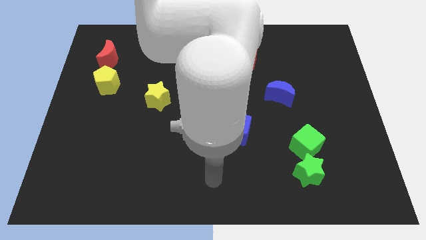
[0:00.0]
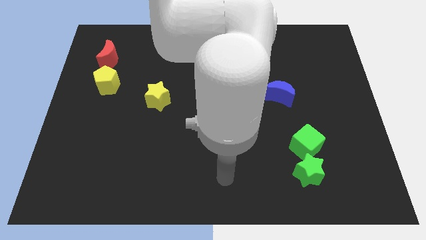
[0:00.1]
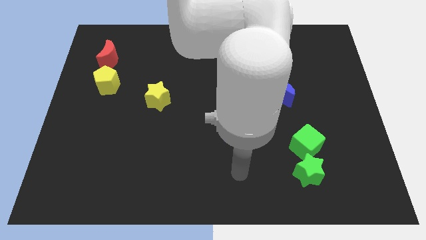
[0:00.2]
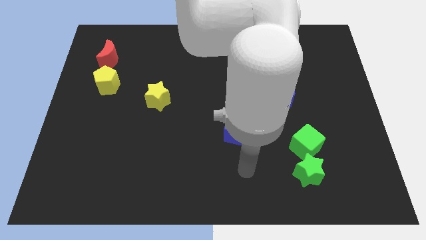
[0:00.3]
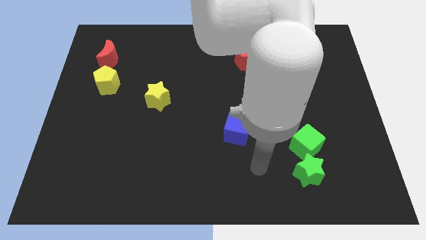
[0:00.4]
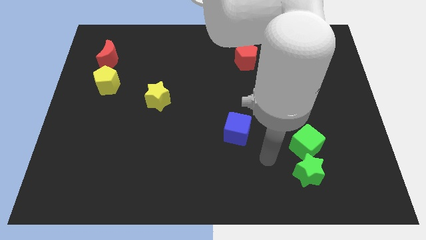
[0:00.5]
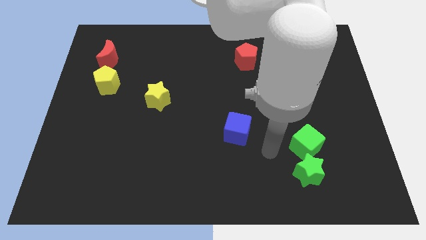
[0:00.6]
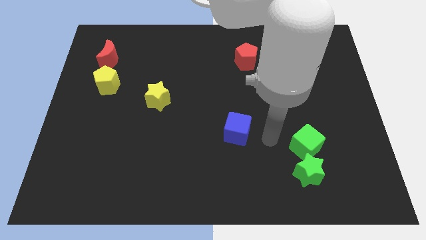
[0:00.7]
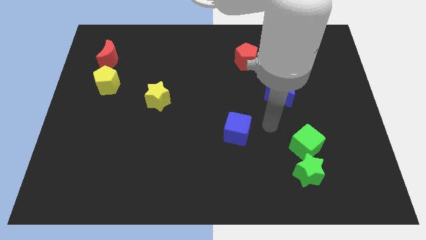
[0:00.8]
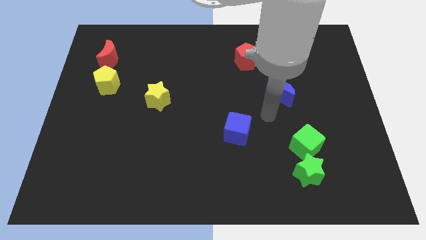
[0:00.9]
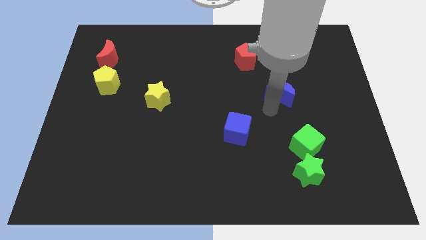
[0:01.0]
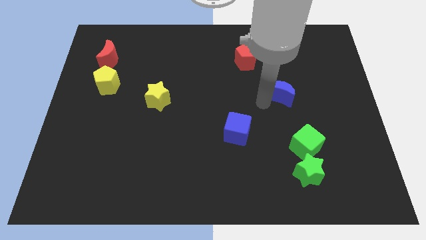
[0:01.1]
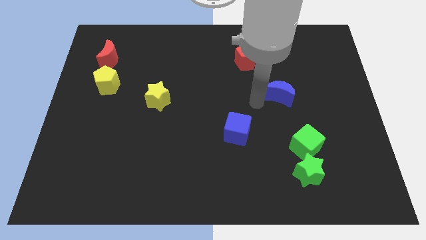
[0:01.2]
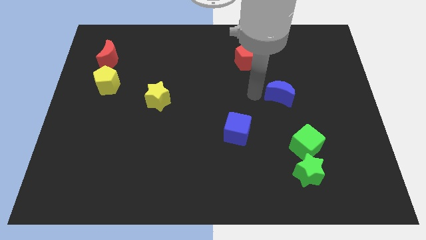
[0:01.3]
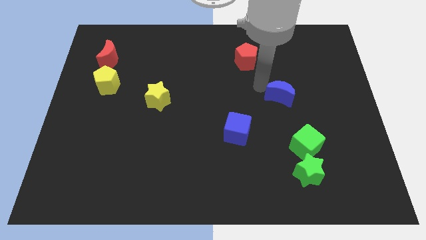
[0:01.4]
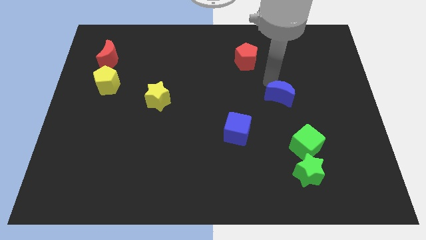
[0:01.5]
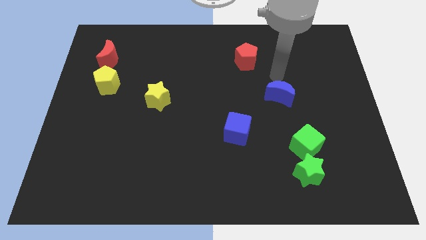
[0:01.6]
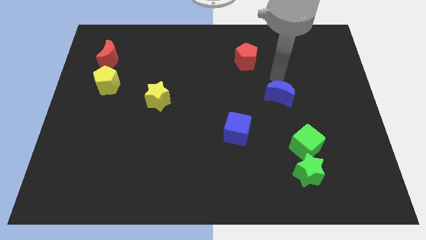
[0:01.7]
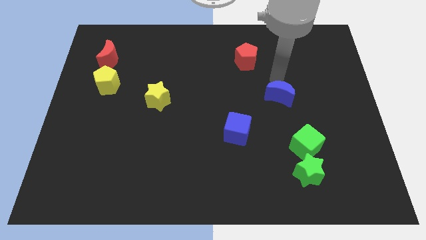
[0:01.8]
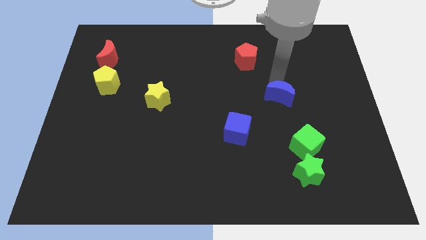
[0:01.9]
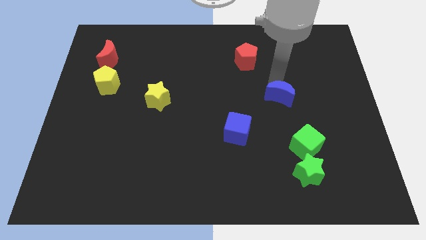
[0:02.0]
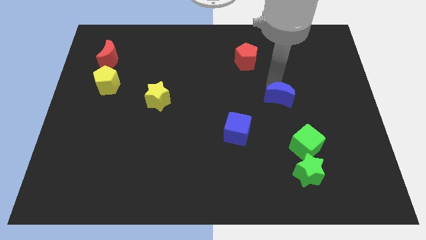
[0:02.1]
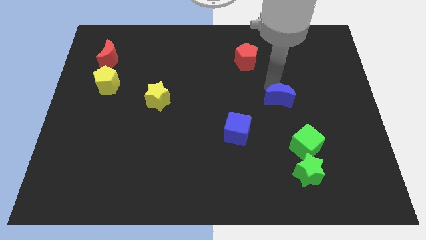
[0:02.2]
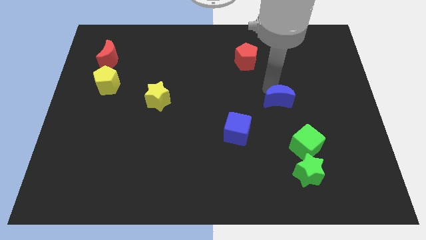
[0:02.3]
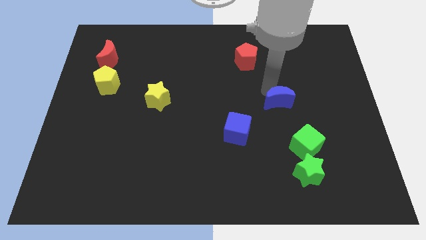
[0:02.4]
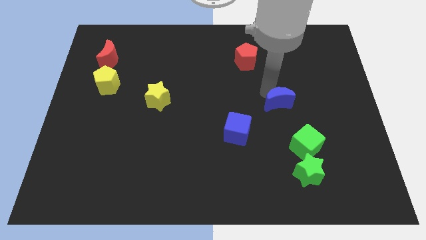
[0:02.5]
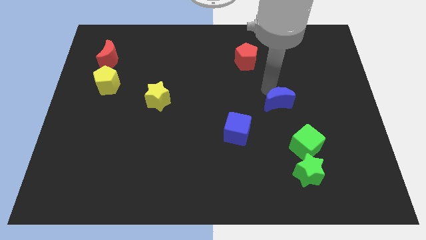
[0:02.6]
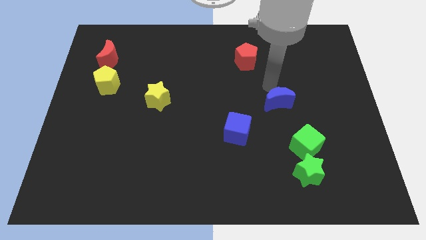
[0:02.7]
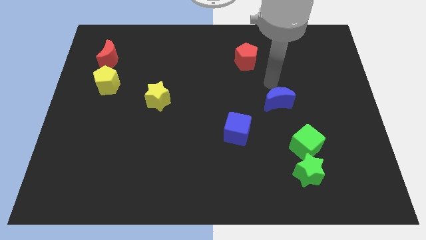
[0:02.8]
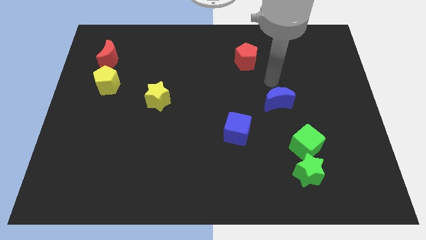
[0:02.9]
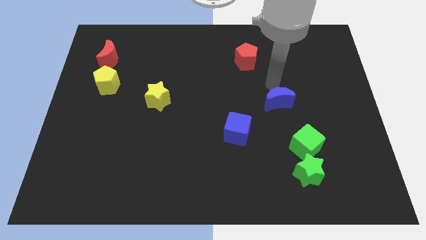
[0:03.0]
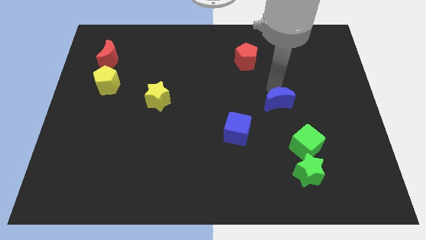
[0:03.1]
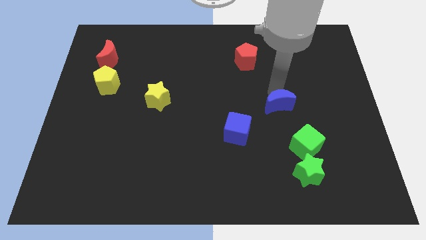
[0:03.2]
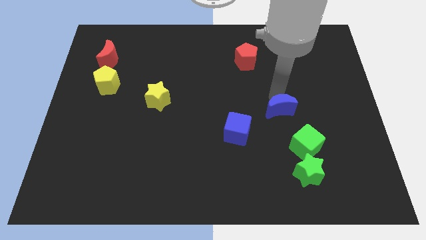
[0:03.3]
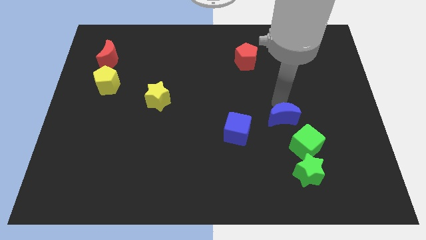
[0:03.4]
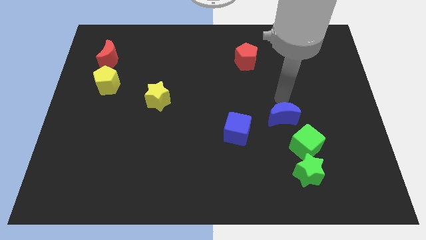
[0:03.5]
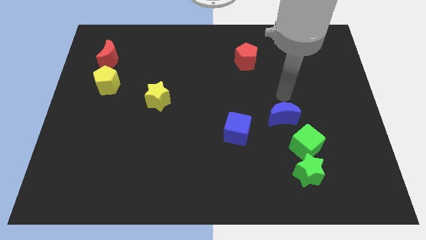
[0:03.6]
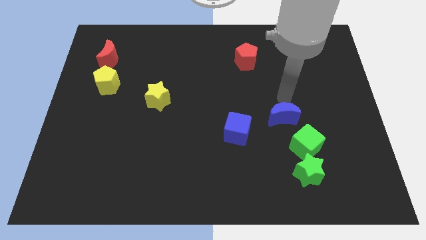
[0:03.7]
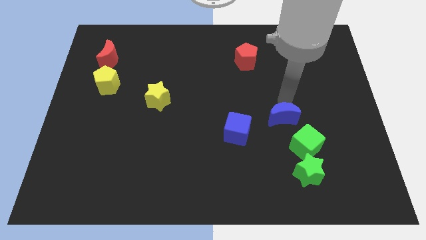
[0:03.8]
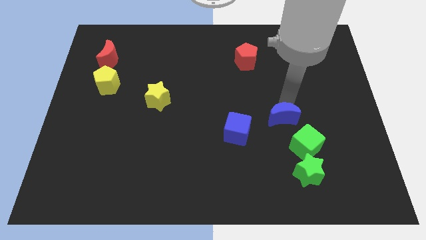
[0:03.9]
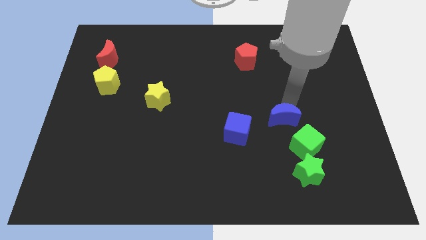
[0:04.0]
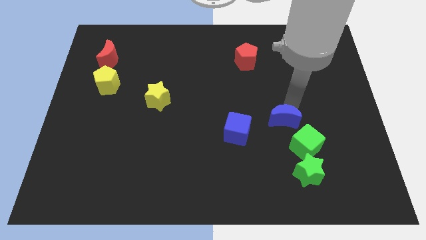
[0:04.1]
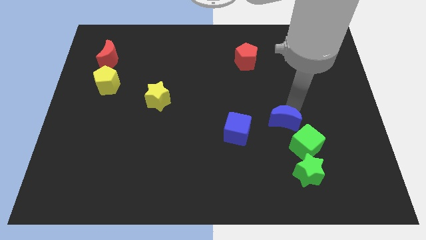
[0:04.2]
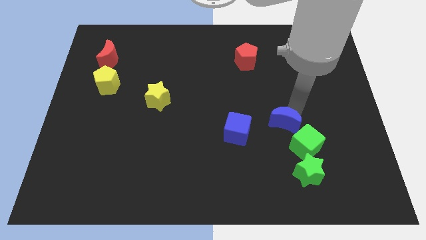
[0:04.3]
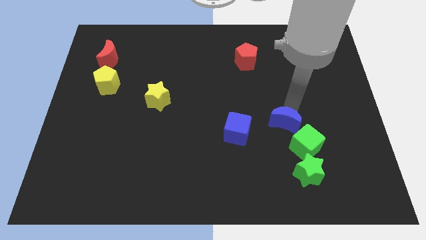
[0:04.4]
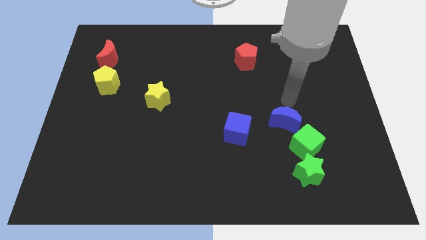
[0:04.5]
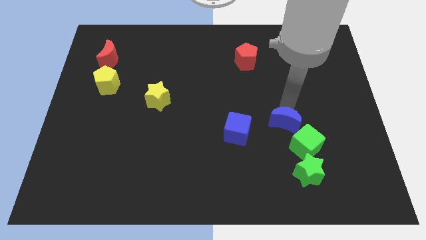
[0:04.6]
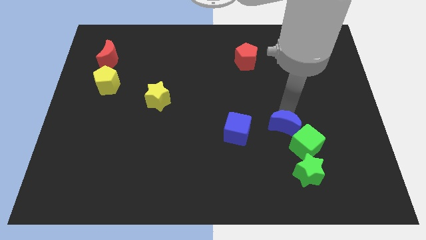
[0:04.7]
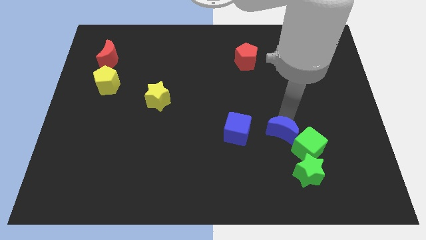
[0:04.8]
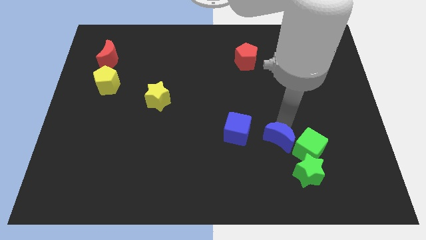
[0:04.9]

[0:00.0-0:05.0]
move the blue moon diagonally up and to the left of the green star

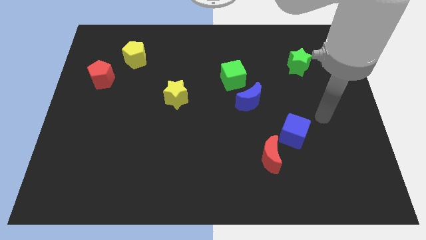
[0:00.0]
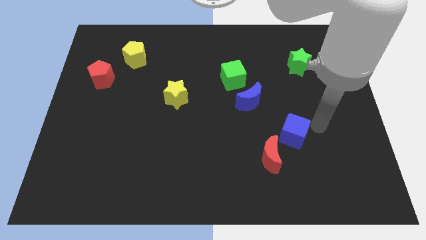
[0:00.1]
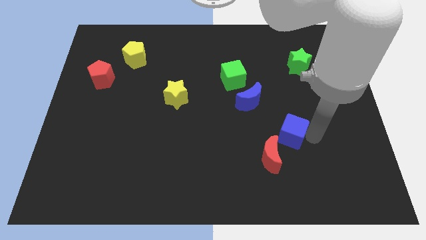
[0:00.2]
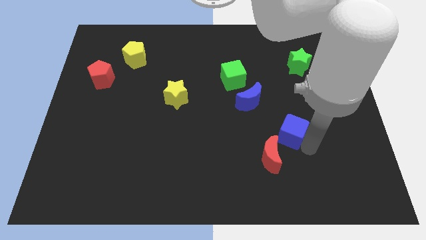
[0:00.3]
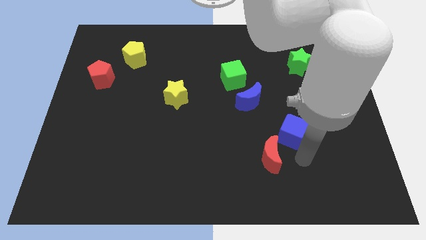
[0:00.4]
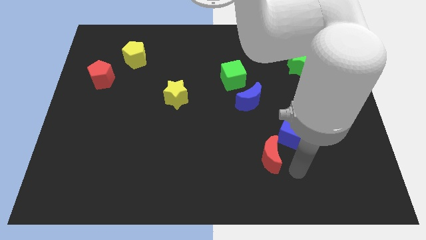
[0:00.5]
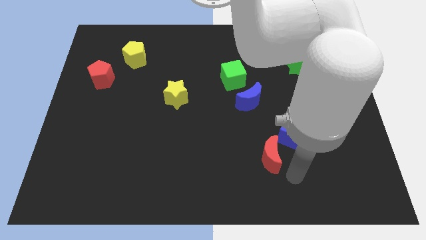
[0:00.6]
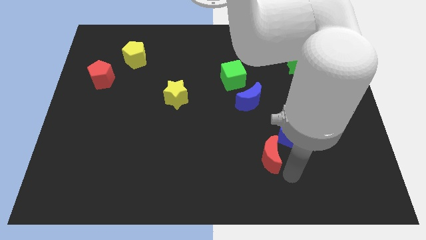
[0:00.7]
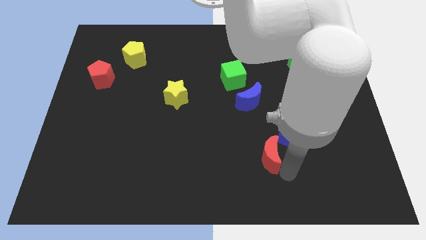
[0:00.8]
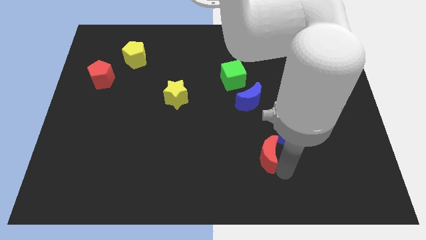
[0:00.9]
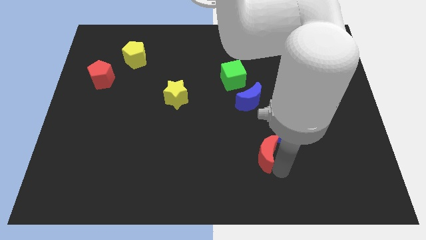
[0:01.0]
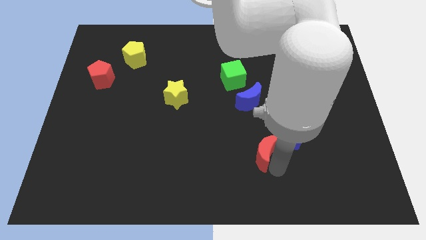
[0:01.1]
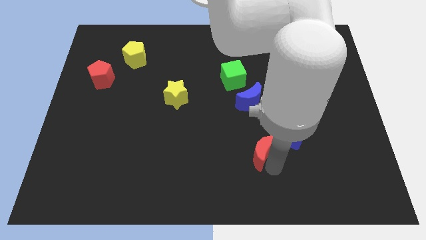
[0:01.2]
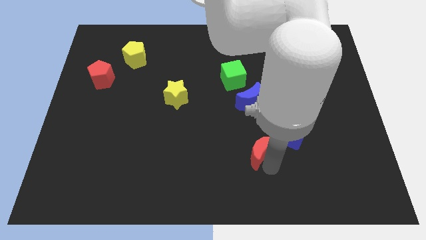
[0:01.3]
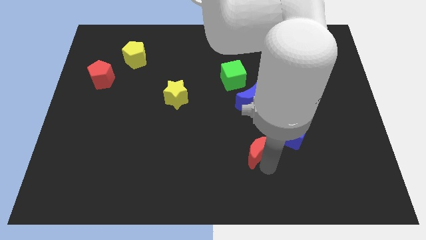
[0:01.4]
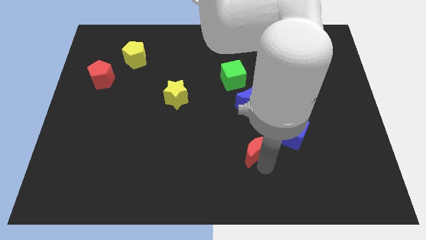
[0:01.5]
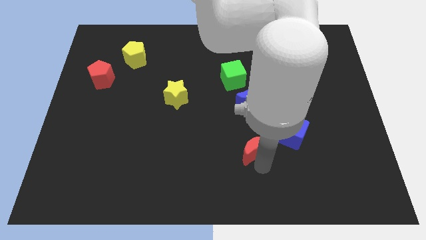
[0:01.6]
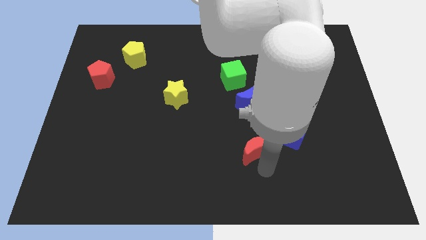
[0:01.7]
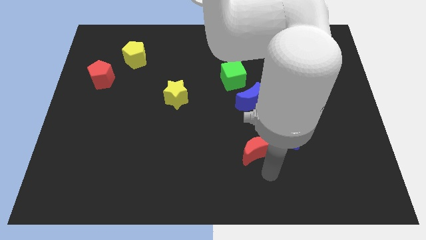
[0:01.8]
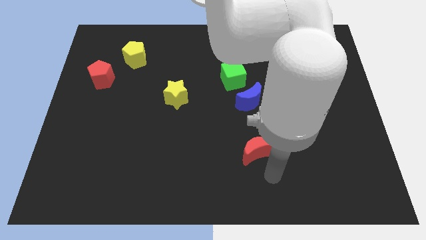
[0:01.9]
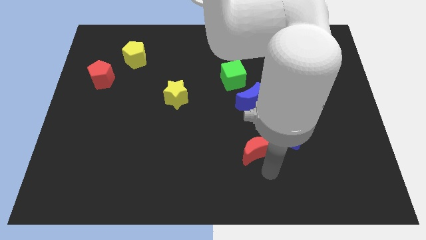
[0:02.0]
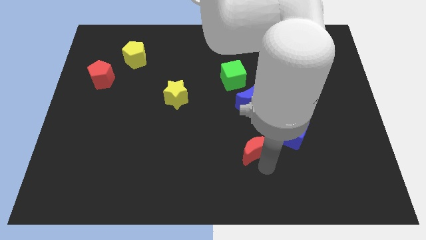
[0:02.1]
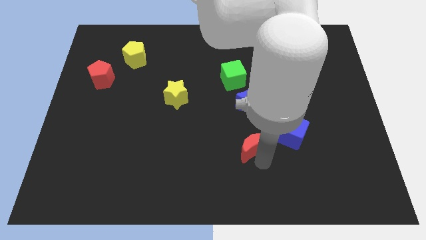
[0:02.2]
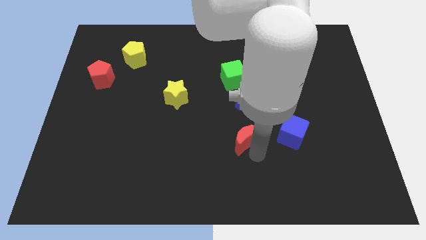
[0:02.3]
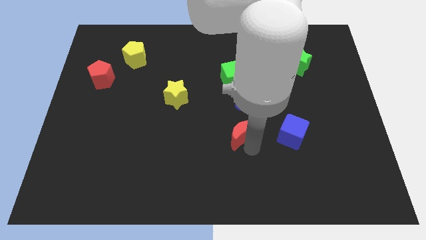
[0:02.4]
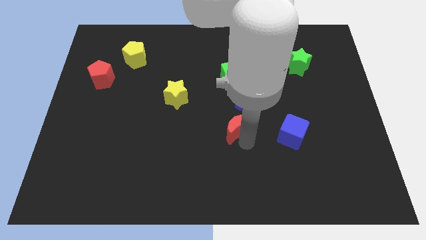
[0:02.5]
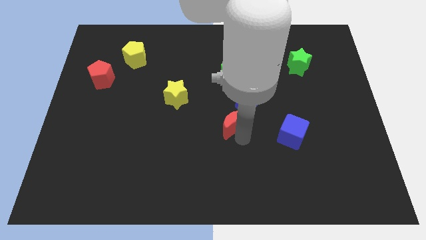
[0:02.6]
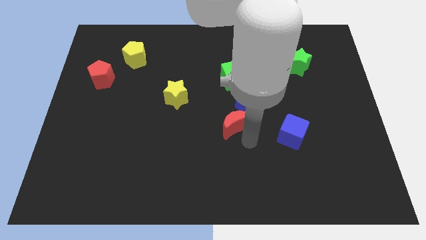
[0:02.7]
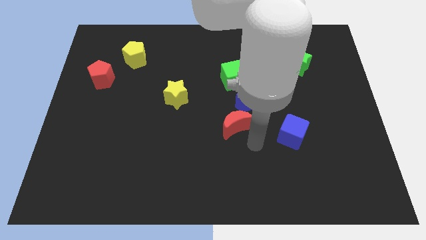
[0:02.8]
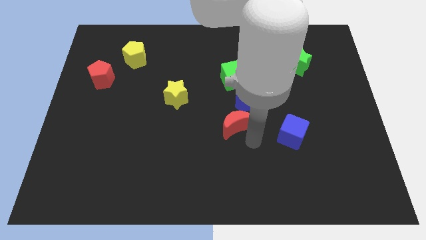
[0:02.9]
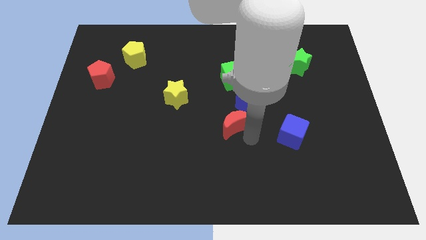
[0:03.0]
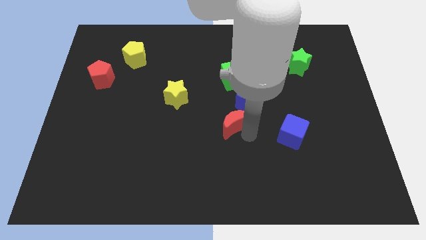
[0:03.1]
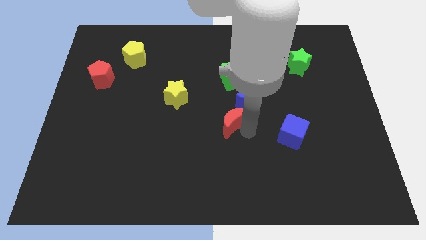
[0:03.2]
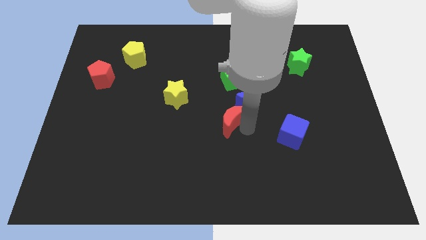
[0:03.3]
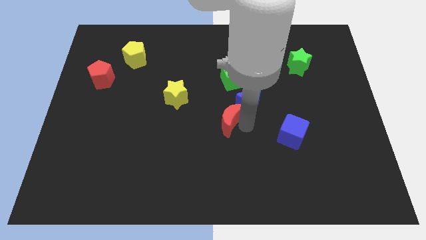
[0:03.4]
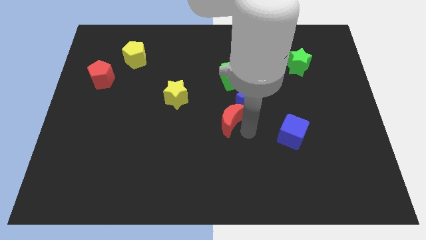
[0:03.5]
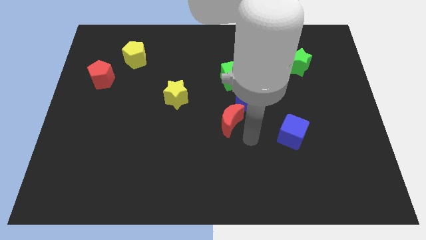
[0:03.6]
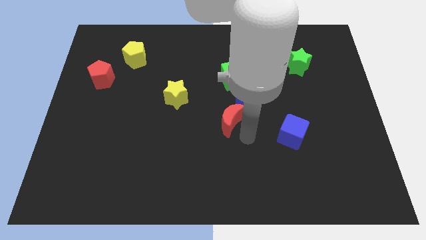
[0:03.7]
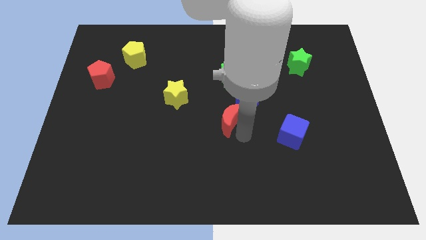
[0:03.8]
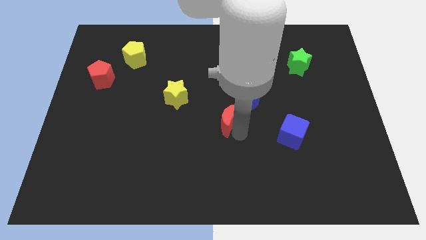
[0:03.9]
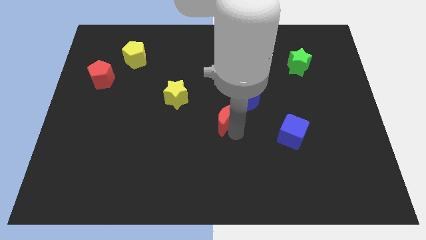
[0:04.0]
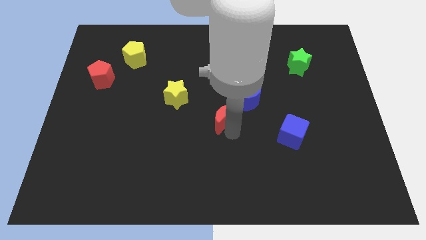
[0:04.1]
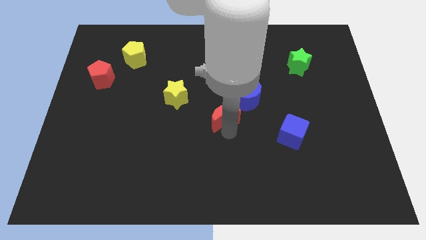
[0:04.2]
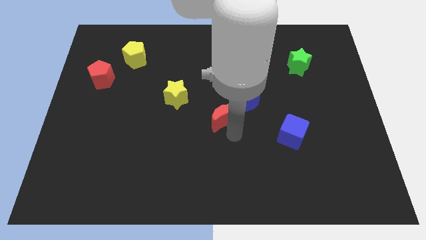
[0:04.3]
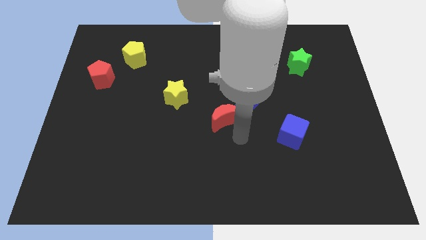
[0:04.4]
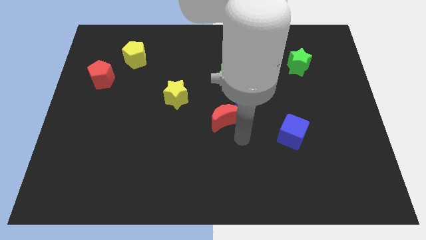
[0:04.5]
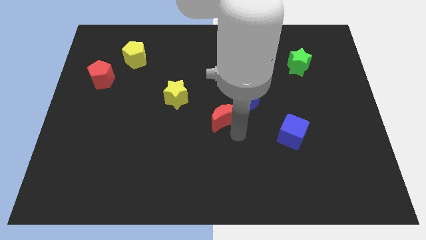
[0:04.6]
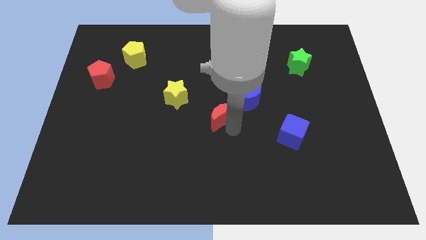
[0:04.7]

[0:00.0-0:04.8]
move the red moon to the left side of the blue moon
